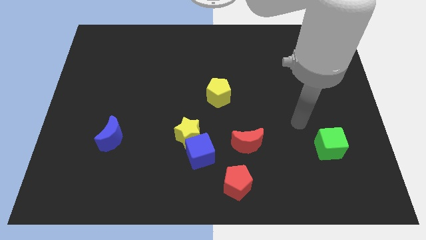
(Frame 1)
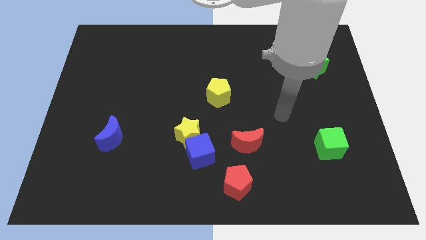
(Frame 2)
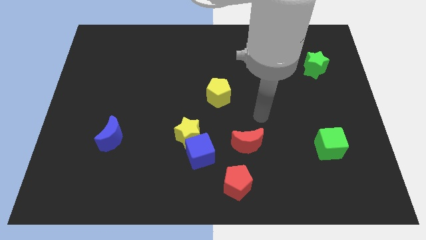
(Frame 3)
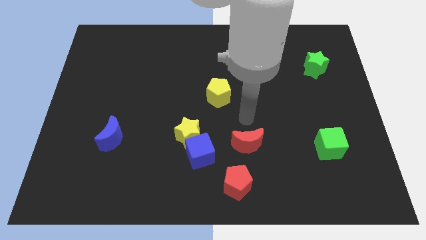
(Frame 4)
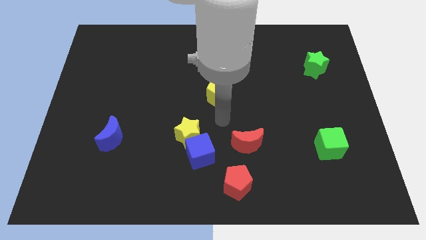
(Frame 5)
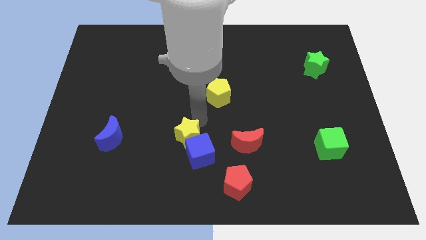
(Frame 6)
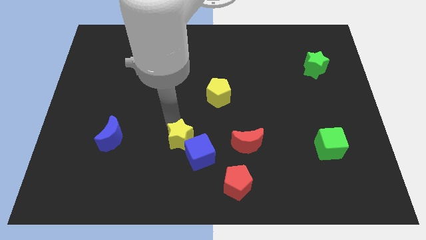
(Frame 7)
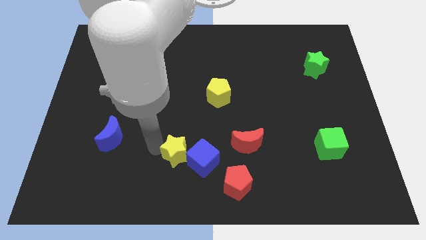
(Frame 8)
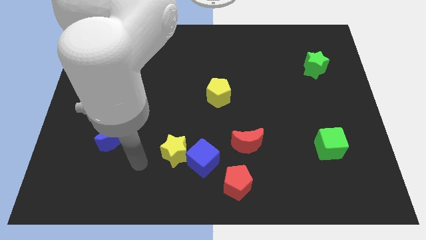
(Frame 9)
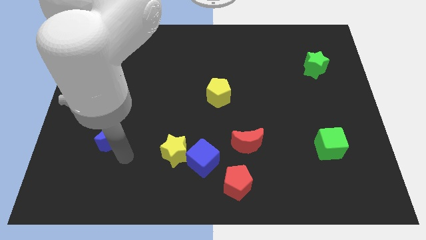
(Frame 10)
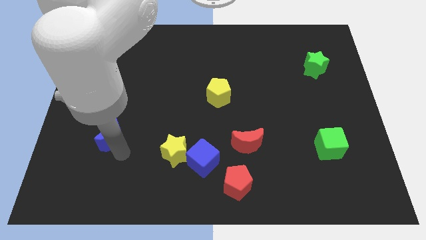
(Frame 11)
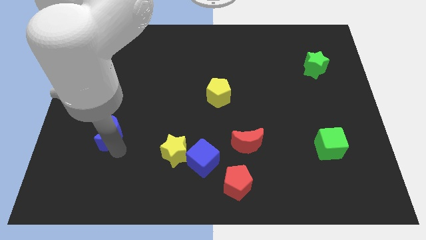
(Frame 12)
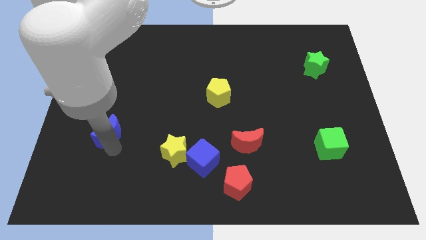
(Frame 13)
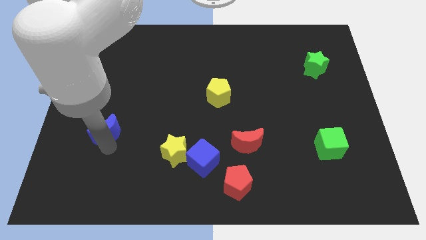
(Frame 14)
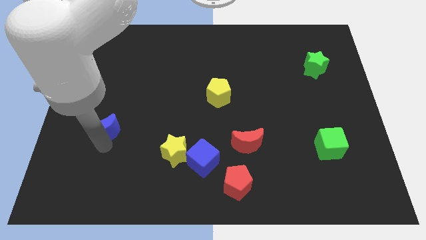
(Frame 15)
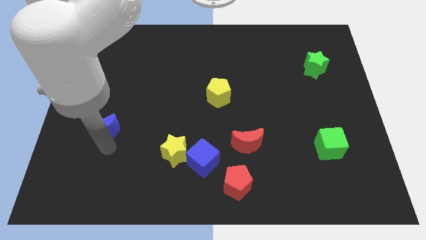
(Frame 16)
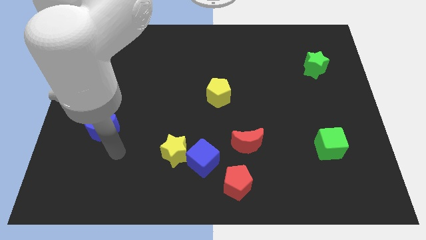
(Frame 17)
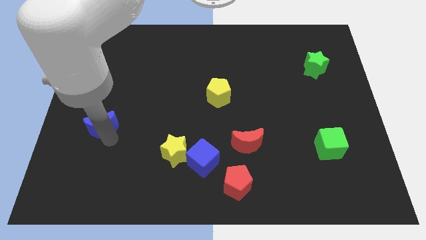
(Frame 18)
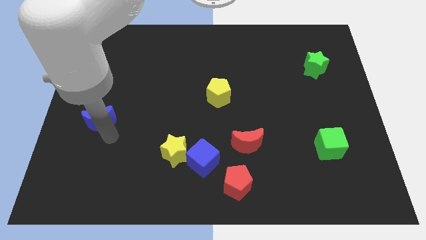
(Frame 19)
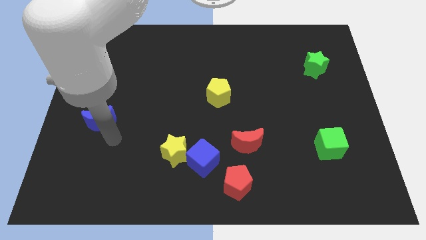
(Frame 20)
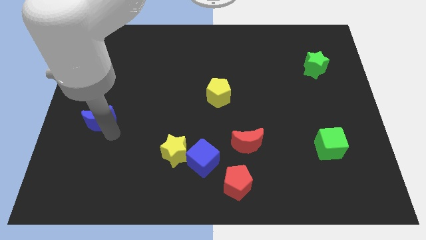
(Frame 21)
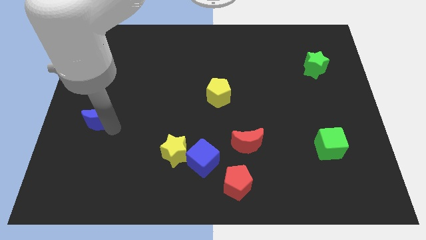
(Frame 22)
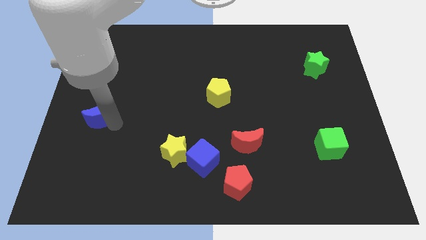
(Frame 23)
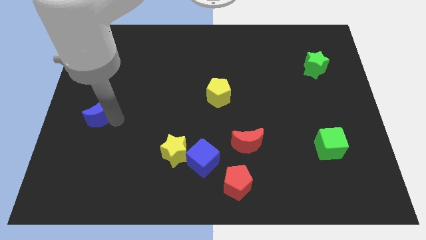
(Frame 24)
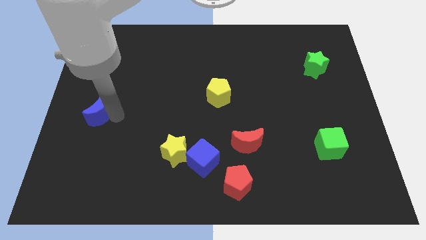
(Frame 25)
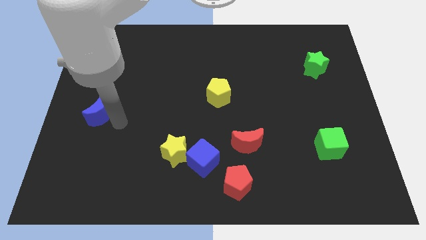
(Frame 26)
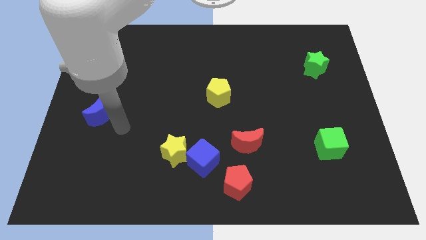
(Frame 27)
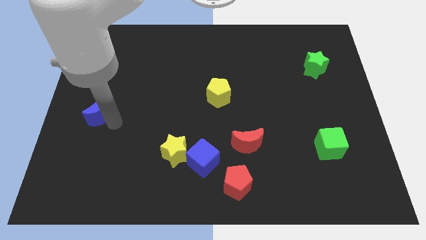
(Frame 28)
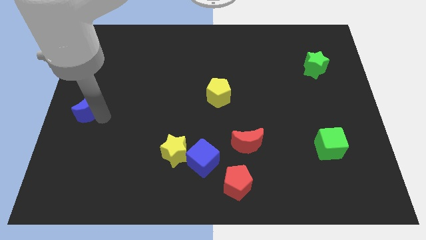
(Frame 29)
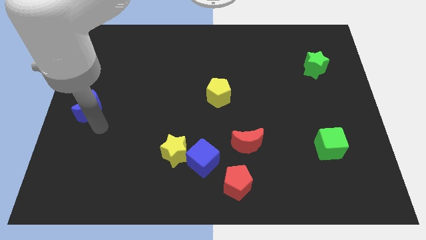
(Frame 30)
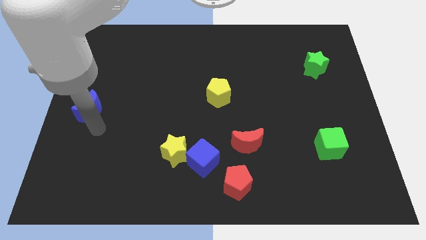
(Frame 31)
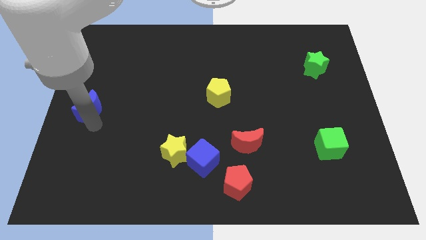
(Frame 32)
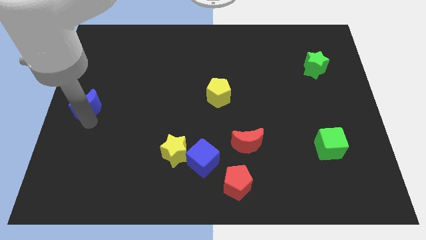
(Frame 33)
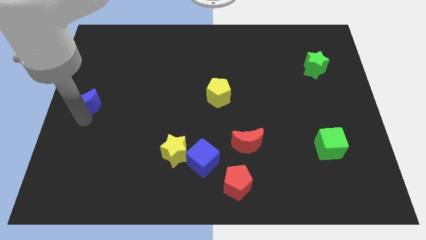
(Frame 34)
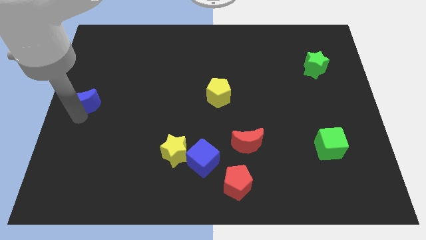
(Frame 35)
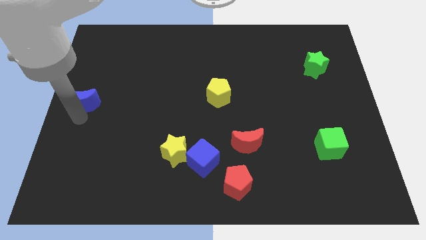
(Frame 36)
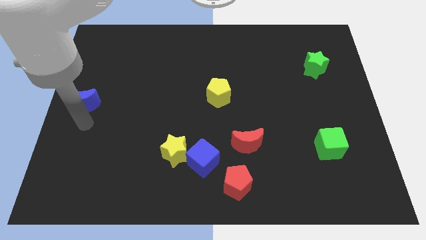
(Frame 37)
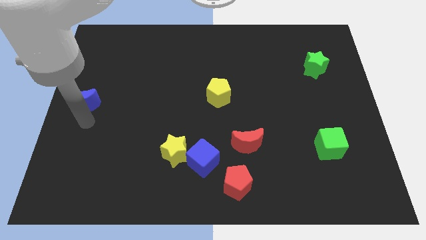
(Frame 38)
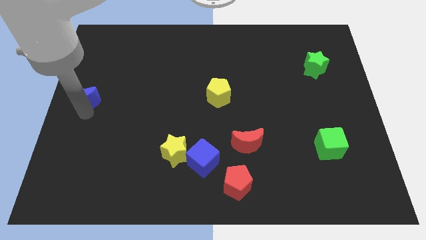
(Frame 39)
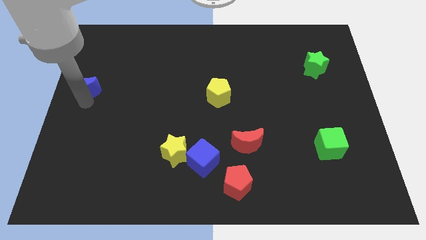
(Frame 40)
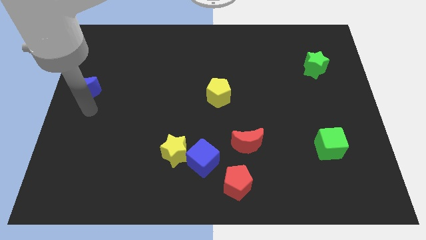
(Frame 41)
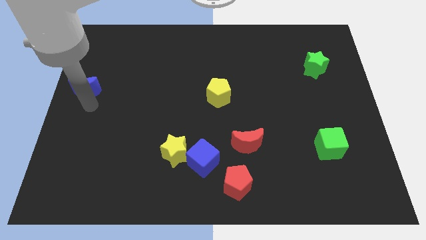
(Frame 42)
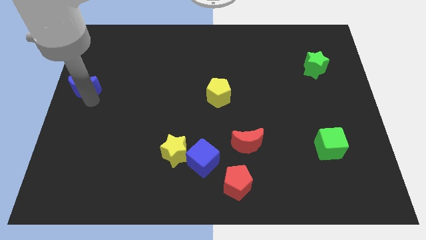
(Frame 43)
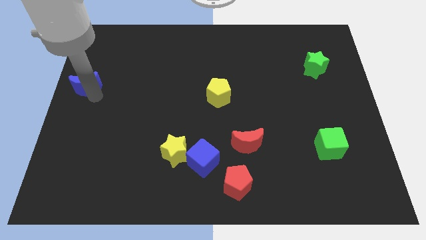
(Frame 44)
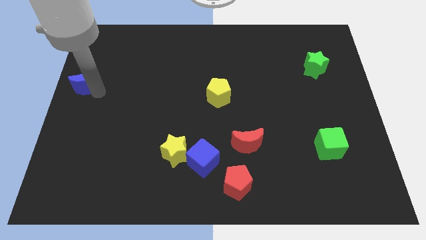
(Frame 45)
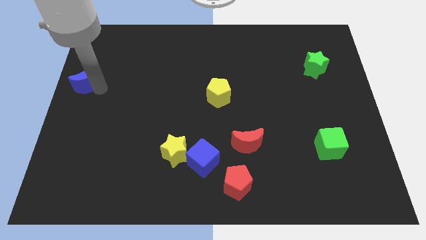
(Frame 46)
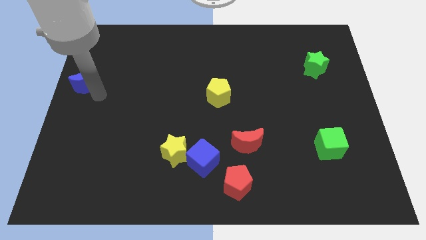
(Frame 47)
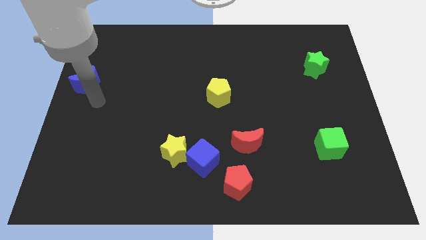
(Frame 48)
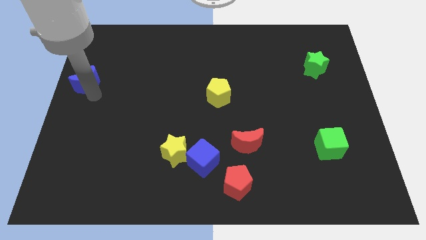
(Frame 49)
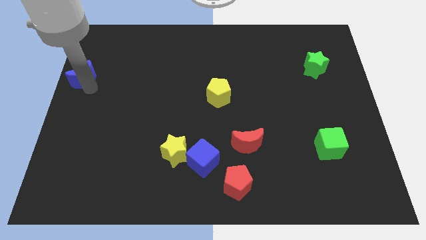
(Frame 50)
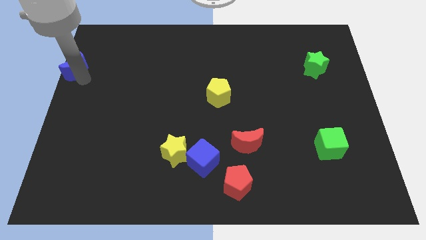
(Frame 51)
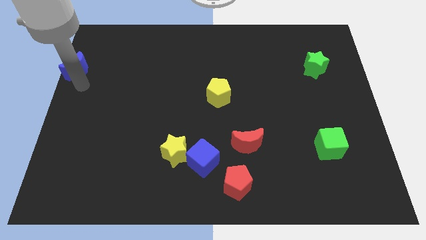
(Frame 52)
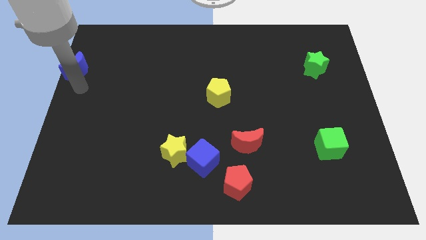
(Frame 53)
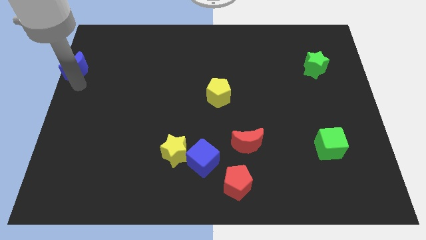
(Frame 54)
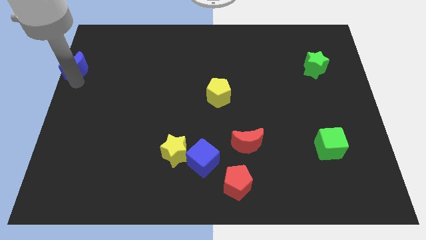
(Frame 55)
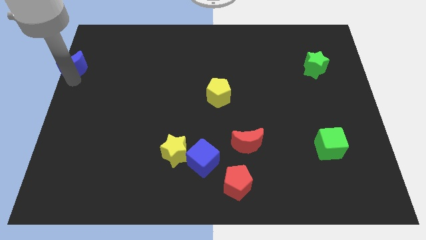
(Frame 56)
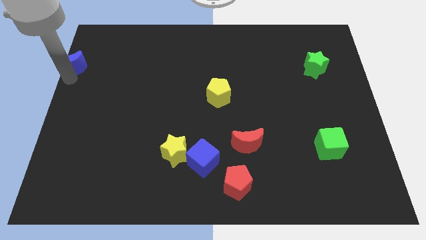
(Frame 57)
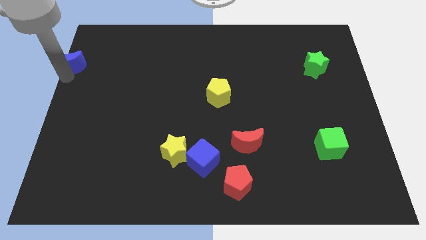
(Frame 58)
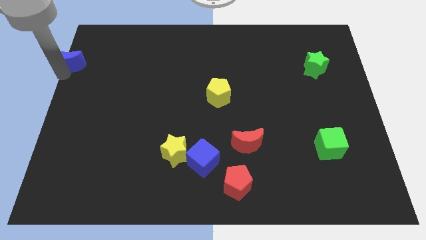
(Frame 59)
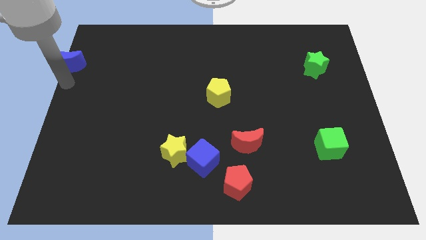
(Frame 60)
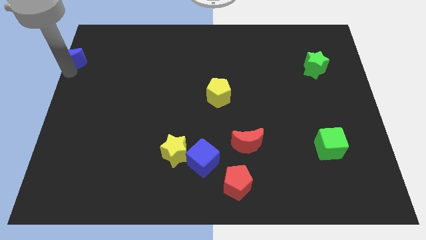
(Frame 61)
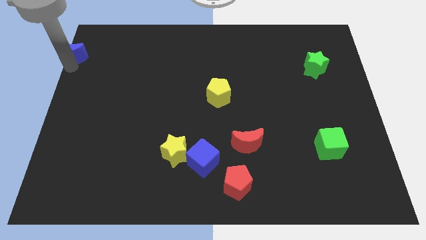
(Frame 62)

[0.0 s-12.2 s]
slide the blue moon to the upper left corner
